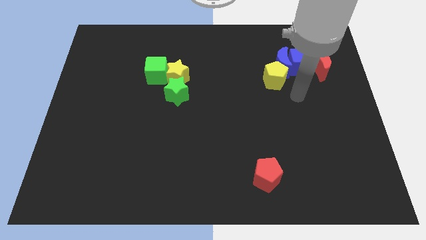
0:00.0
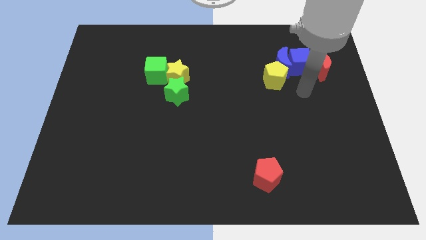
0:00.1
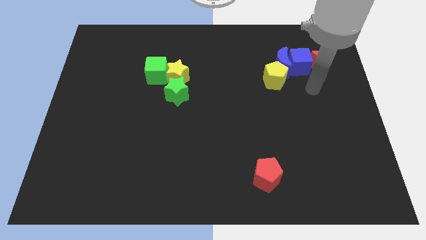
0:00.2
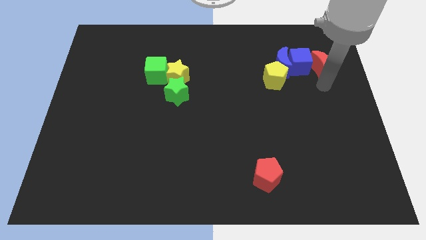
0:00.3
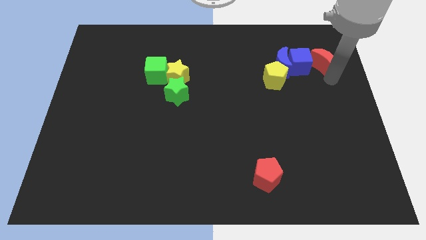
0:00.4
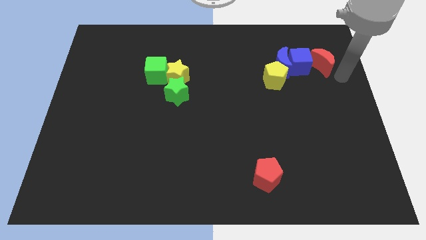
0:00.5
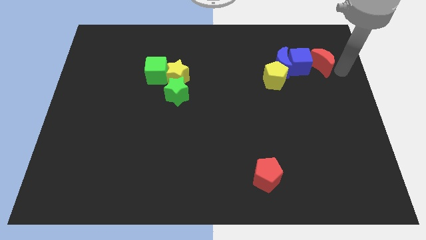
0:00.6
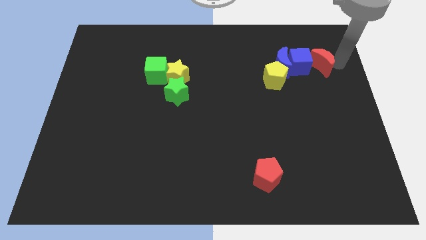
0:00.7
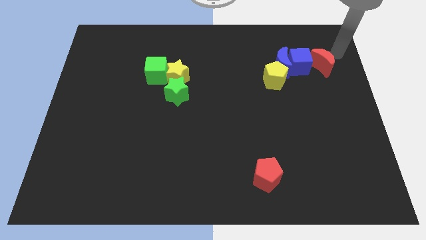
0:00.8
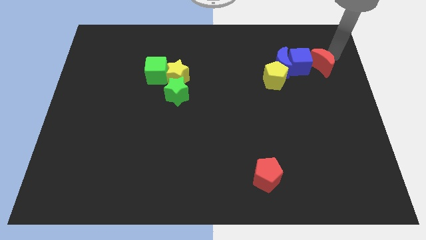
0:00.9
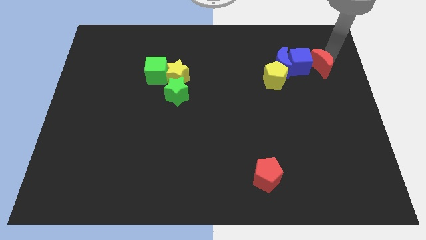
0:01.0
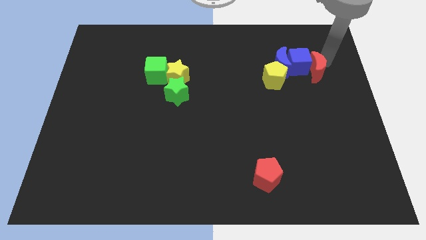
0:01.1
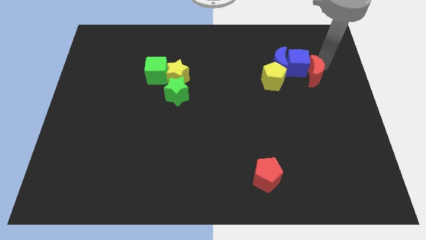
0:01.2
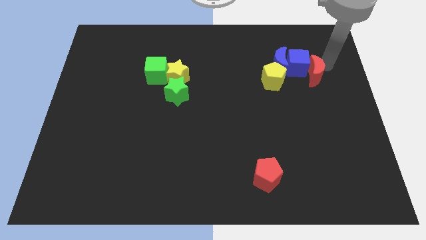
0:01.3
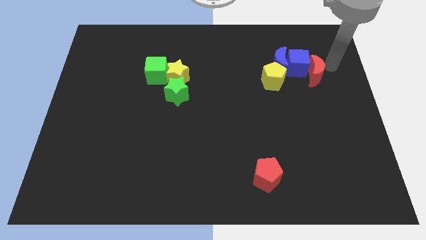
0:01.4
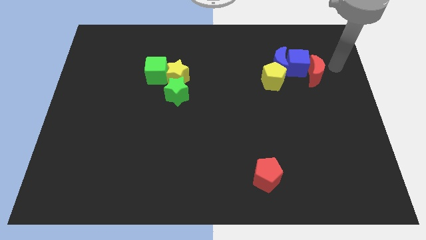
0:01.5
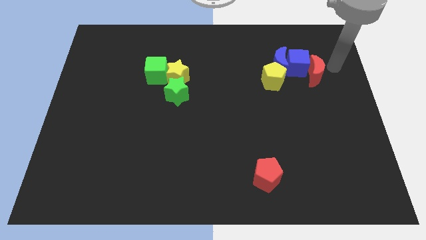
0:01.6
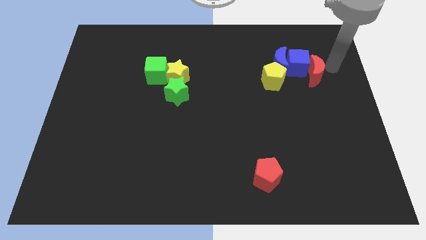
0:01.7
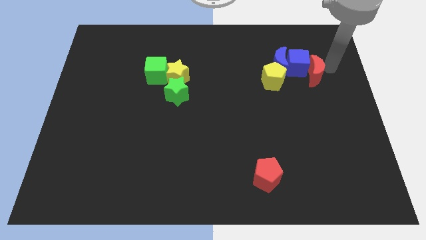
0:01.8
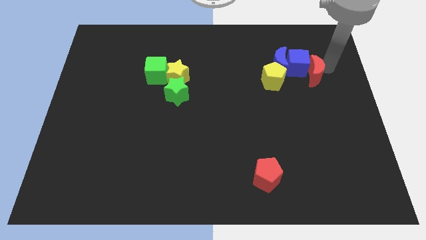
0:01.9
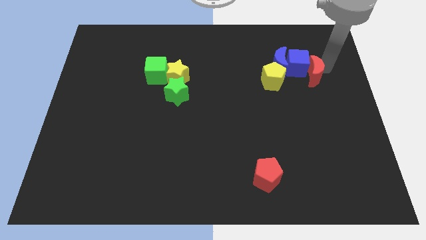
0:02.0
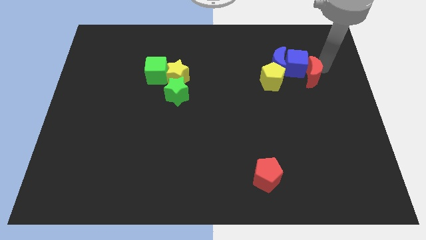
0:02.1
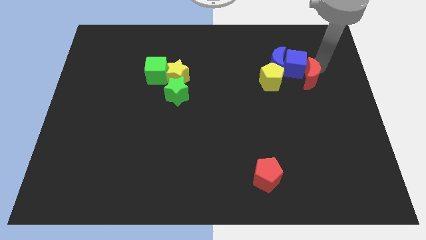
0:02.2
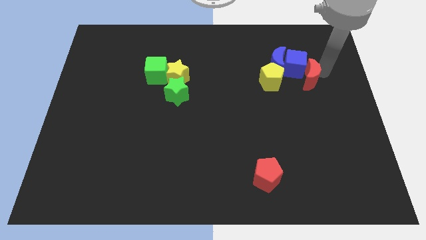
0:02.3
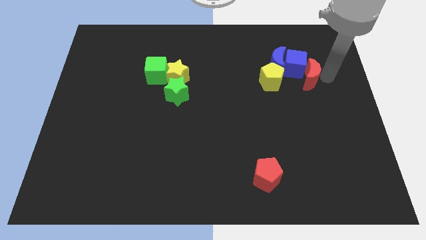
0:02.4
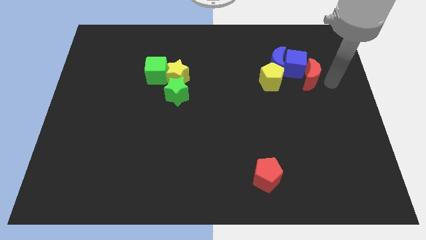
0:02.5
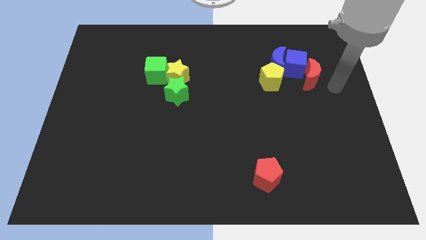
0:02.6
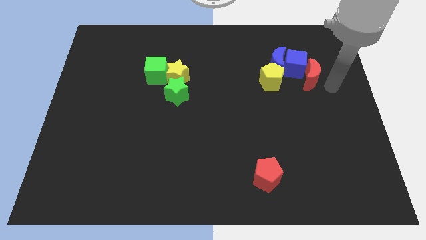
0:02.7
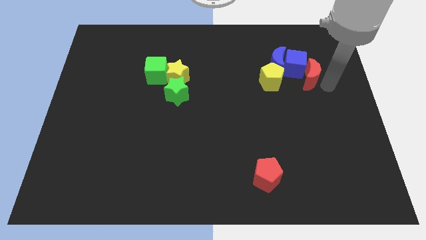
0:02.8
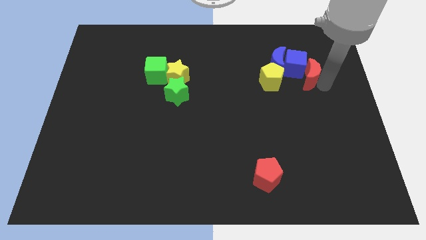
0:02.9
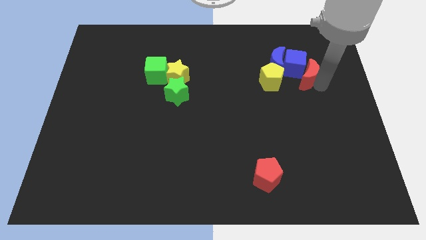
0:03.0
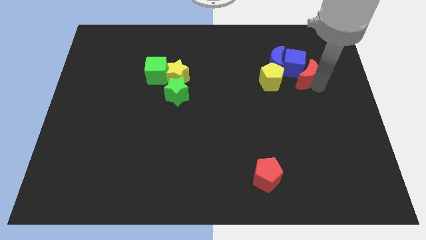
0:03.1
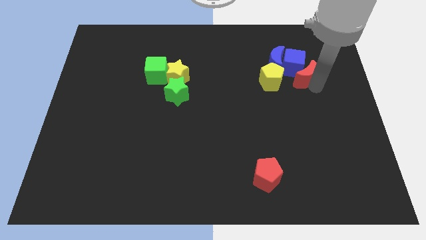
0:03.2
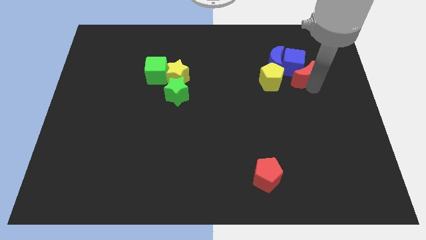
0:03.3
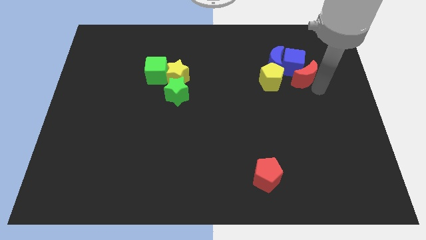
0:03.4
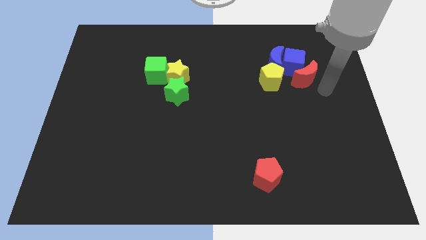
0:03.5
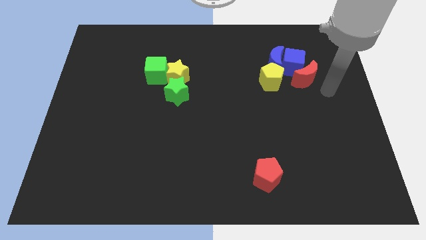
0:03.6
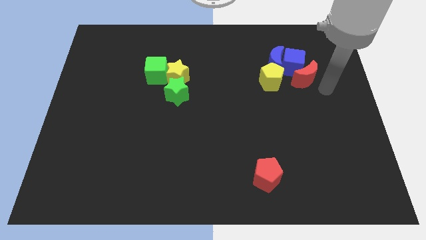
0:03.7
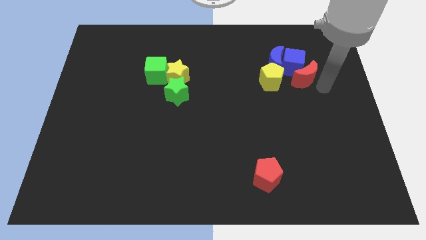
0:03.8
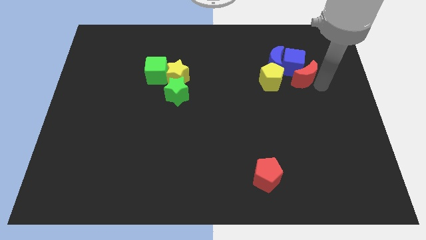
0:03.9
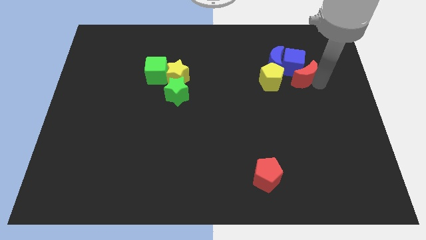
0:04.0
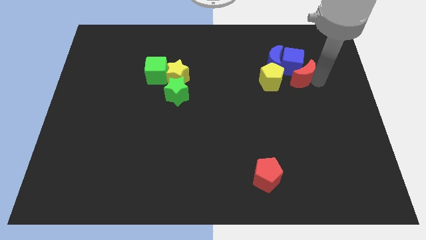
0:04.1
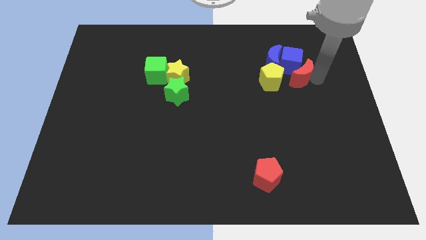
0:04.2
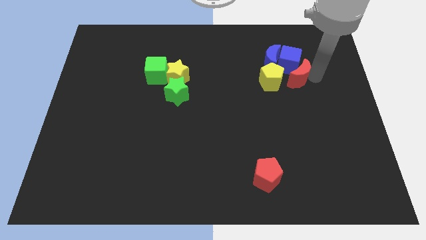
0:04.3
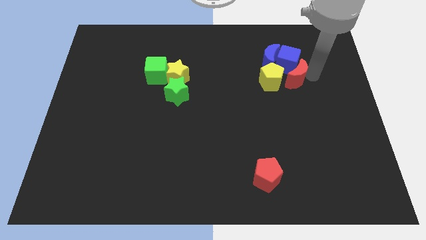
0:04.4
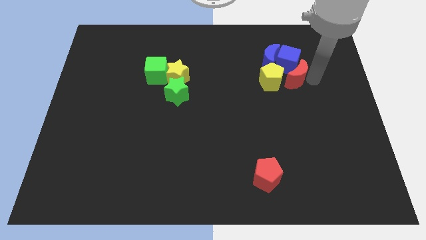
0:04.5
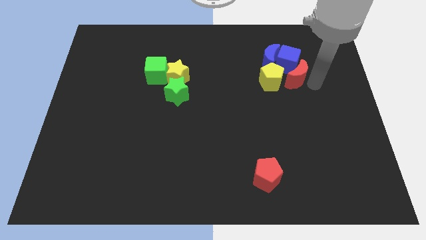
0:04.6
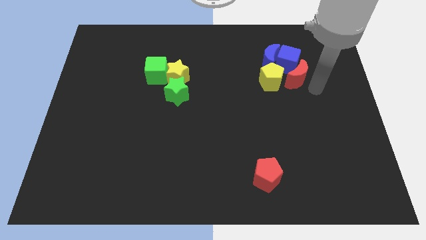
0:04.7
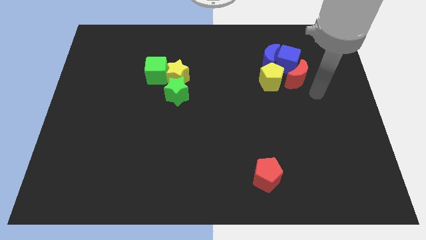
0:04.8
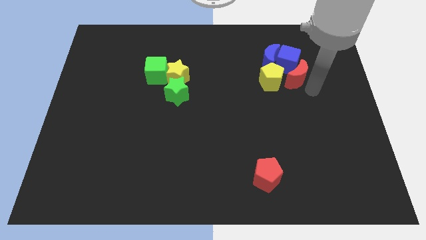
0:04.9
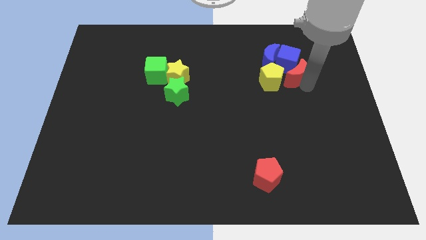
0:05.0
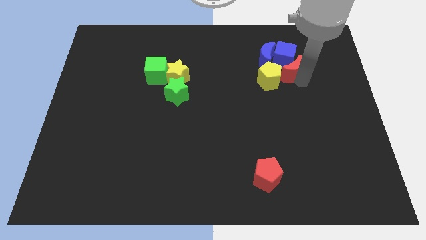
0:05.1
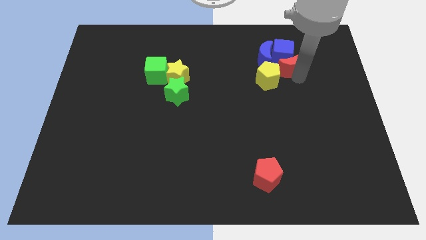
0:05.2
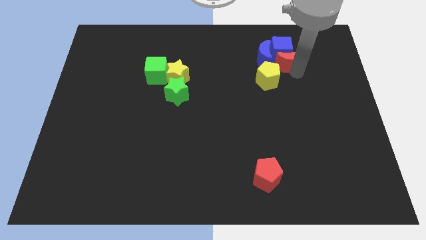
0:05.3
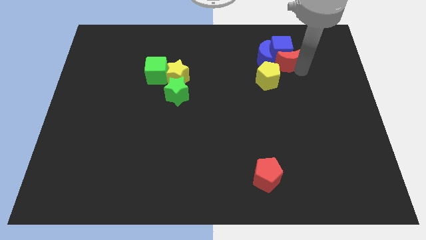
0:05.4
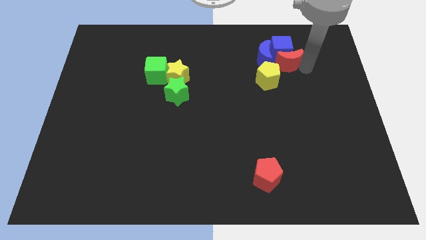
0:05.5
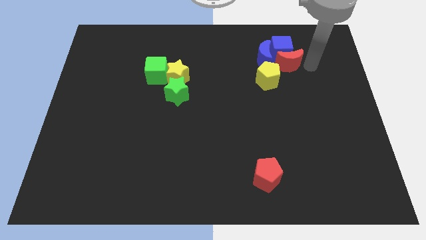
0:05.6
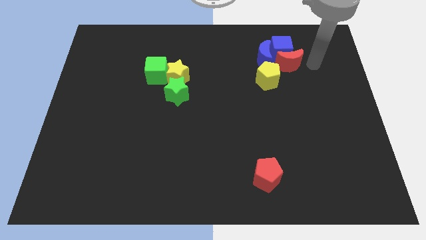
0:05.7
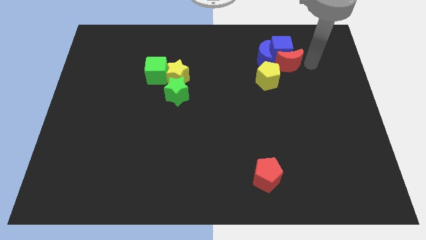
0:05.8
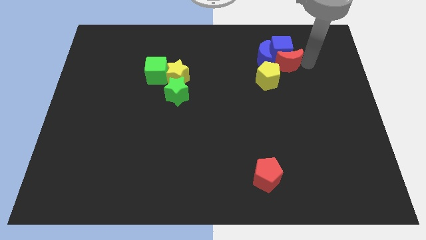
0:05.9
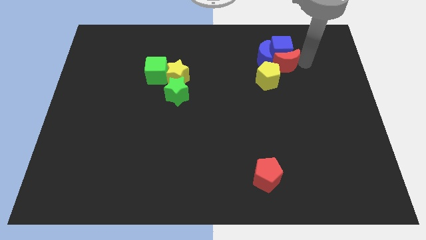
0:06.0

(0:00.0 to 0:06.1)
slide the red moon towards the blue moon

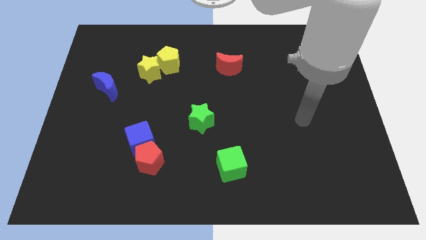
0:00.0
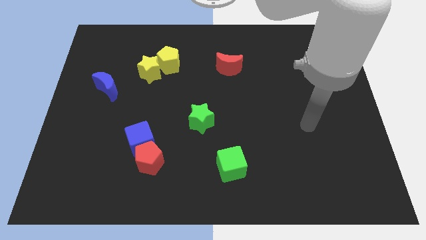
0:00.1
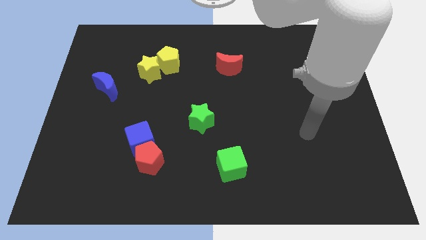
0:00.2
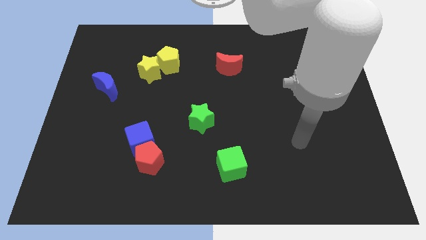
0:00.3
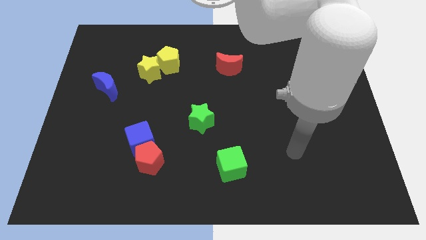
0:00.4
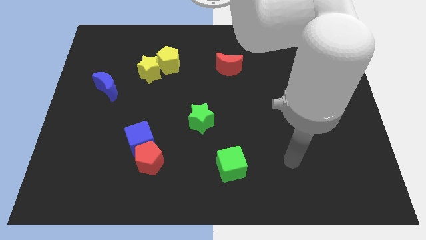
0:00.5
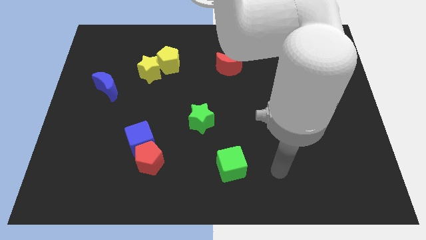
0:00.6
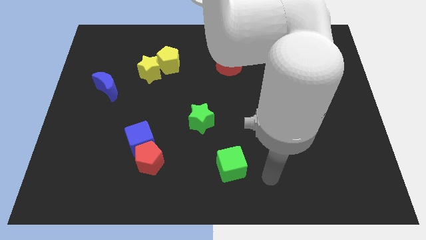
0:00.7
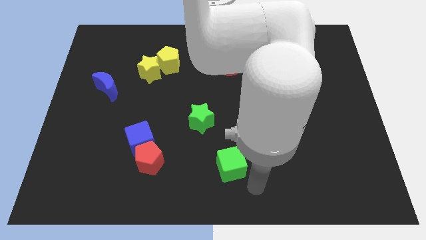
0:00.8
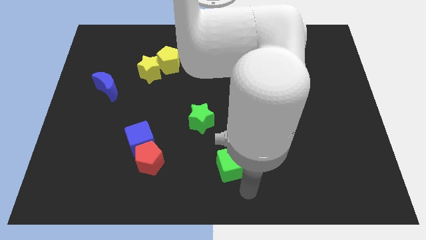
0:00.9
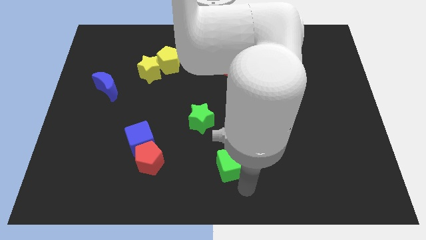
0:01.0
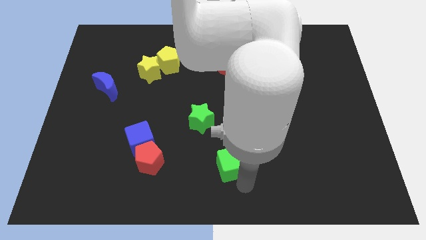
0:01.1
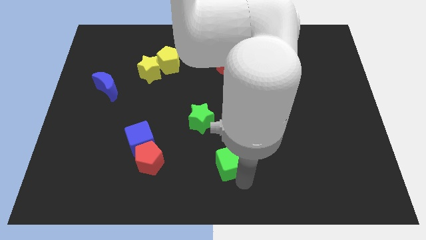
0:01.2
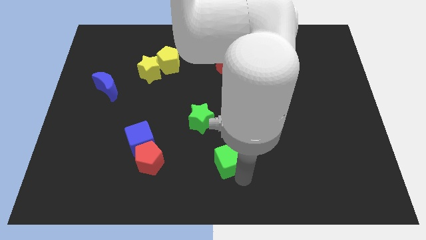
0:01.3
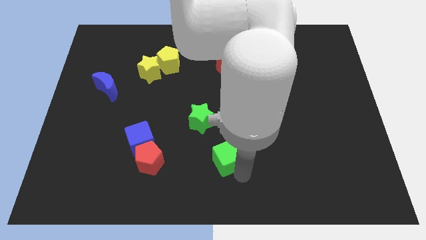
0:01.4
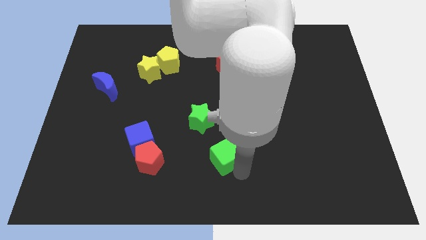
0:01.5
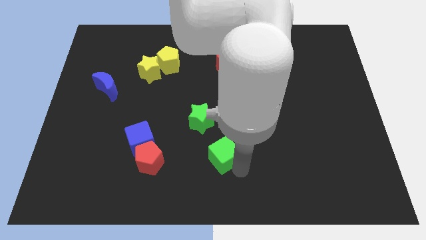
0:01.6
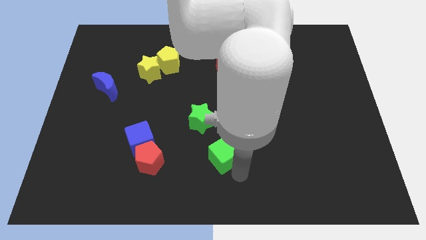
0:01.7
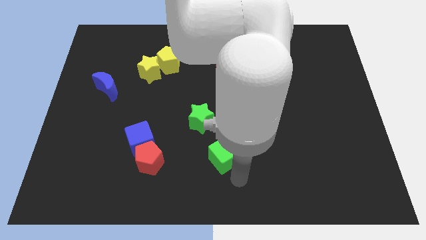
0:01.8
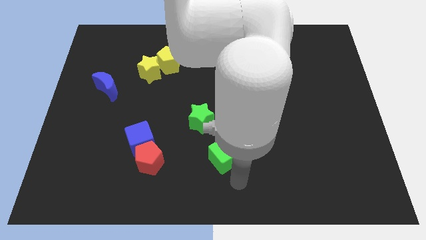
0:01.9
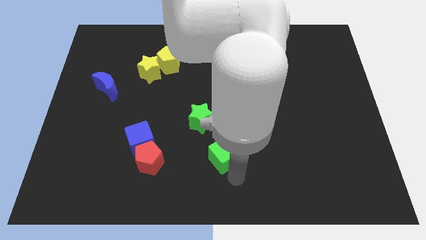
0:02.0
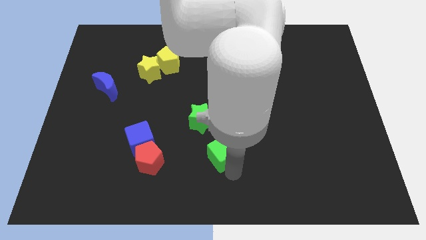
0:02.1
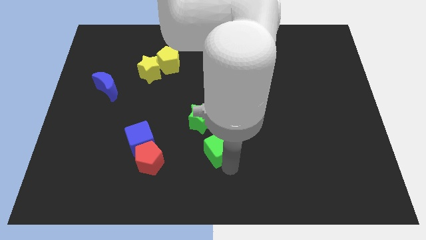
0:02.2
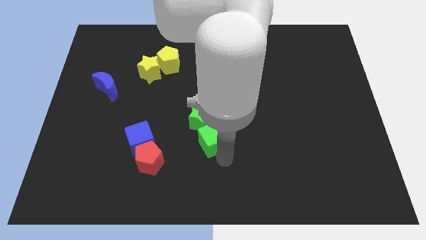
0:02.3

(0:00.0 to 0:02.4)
put the green cube close to the green star
